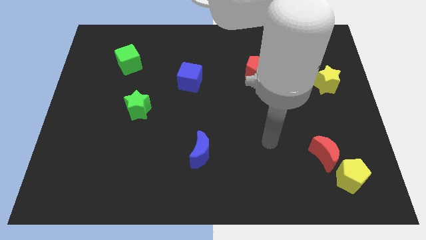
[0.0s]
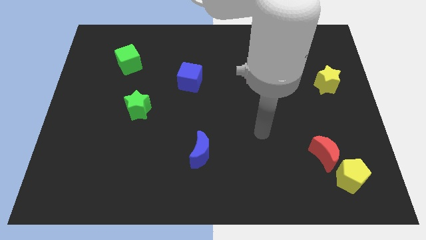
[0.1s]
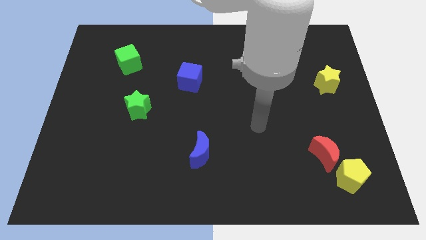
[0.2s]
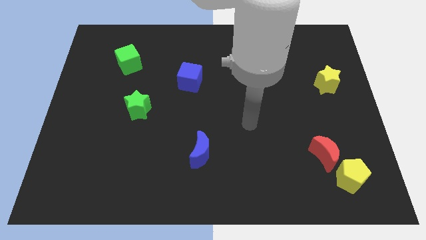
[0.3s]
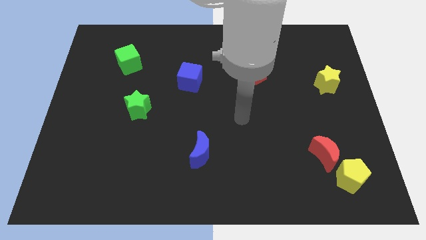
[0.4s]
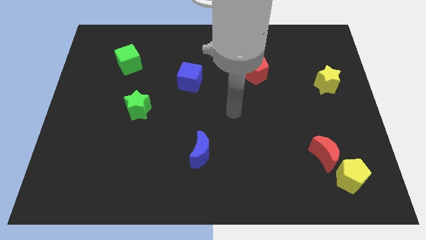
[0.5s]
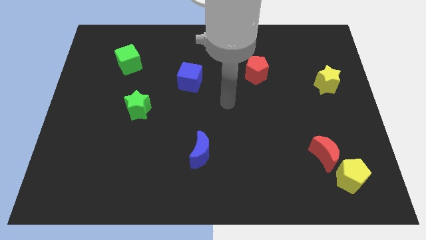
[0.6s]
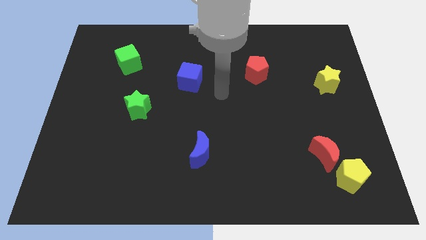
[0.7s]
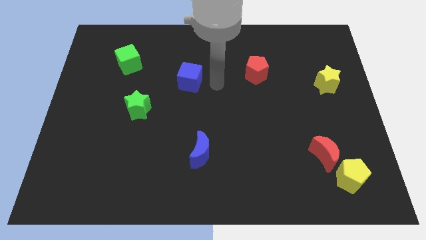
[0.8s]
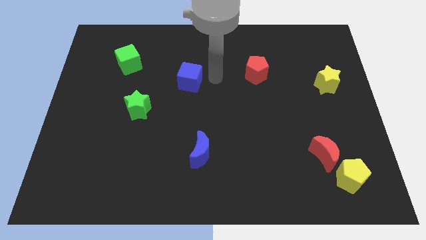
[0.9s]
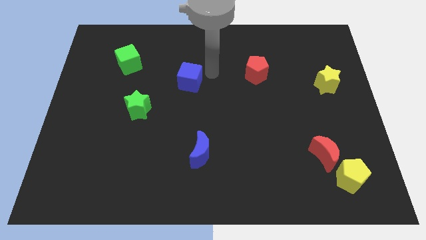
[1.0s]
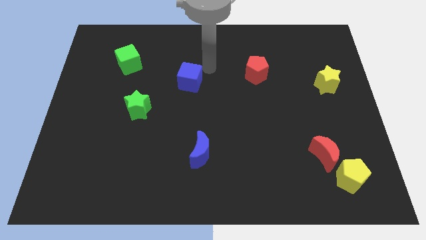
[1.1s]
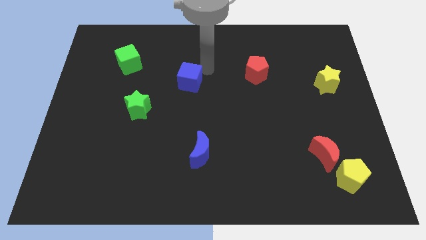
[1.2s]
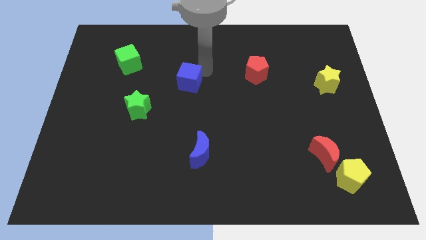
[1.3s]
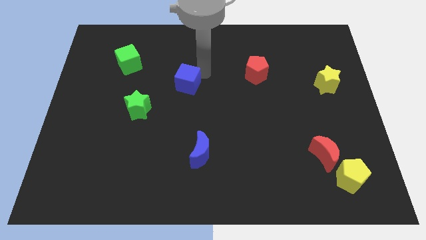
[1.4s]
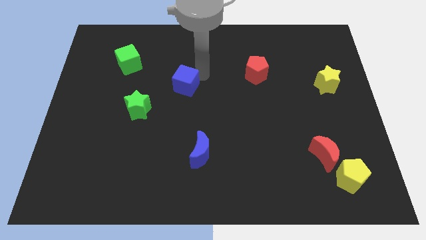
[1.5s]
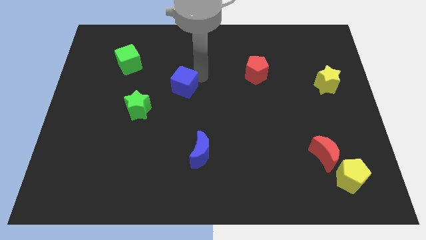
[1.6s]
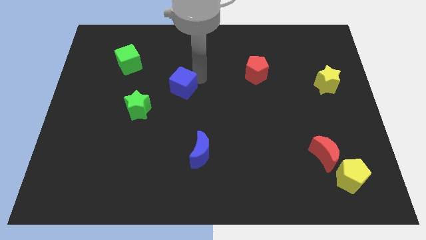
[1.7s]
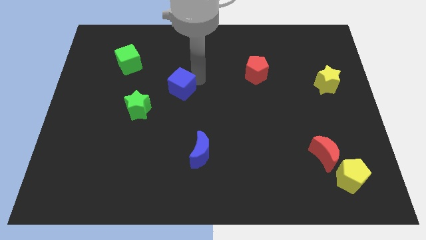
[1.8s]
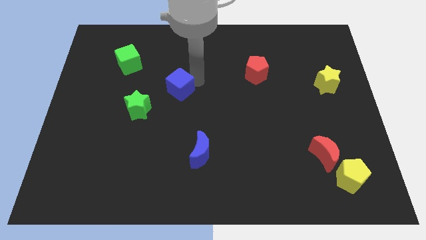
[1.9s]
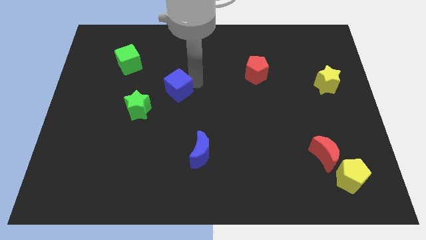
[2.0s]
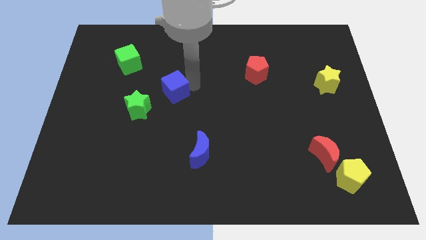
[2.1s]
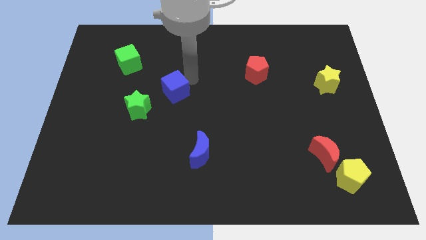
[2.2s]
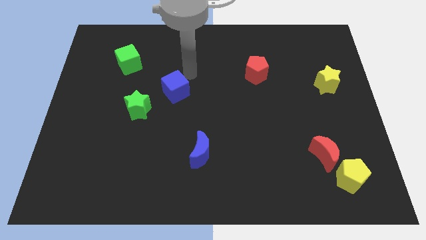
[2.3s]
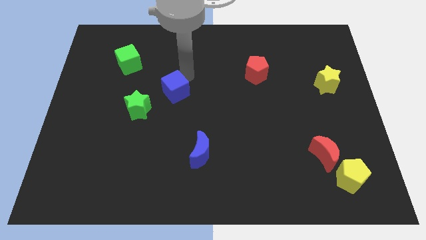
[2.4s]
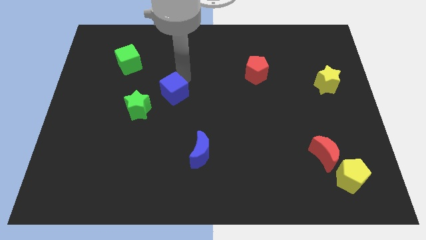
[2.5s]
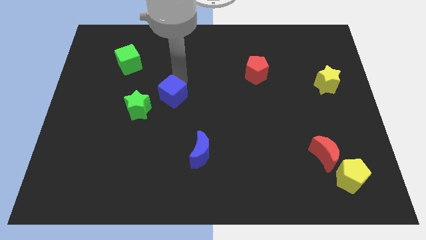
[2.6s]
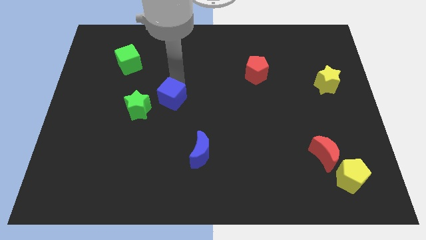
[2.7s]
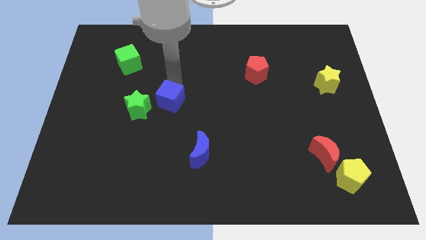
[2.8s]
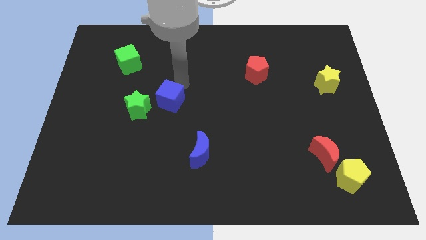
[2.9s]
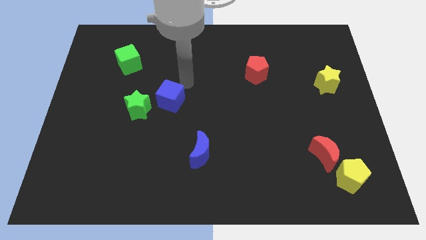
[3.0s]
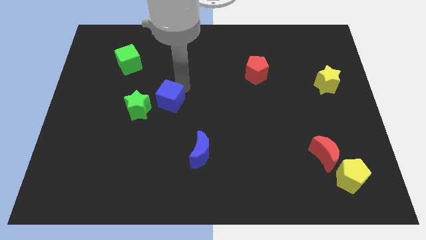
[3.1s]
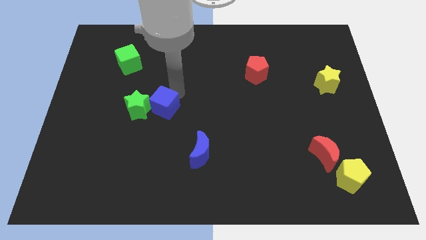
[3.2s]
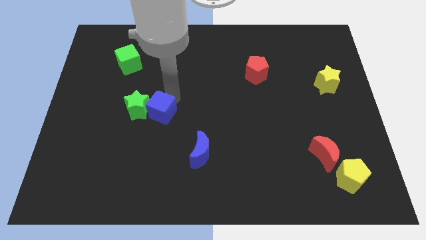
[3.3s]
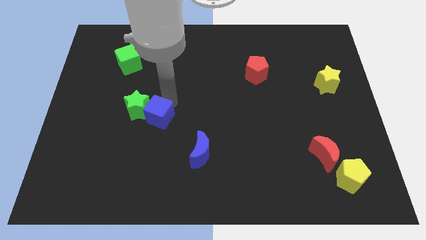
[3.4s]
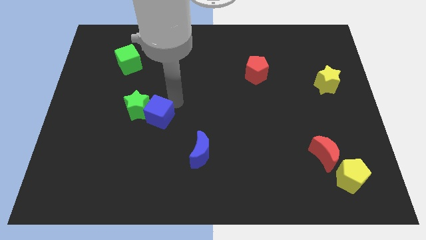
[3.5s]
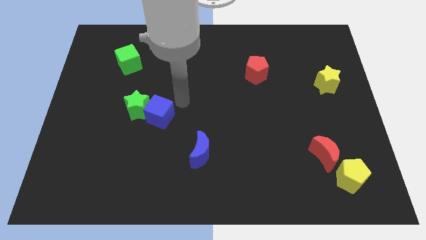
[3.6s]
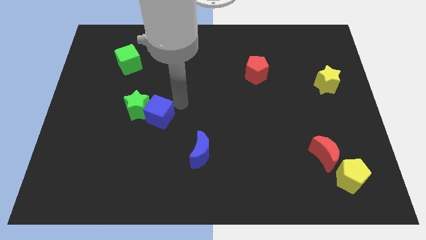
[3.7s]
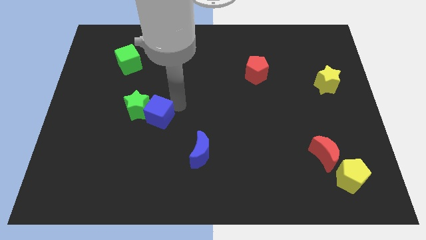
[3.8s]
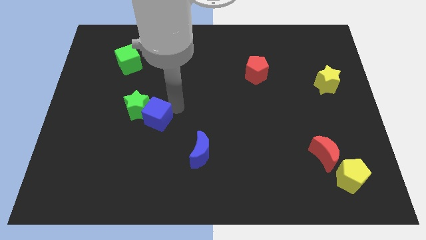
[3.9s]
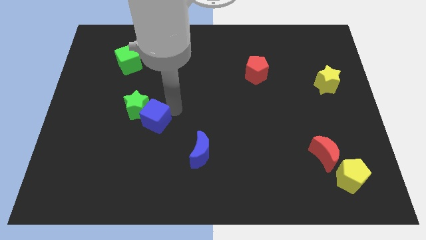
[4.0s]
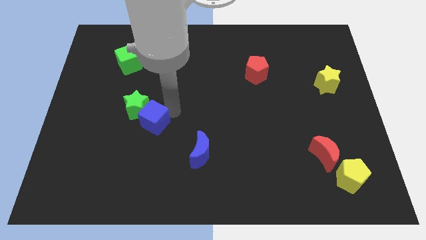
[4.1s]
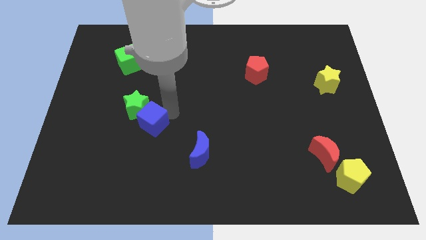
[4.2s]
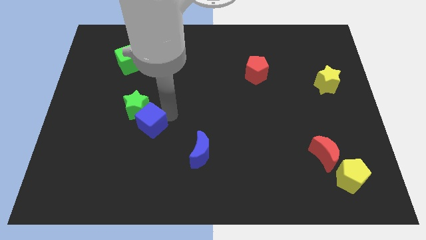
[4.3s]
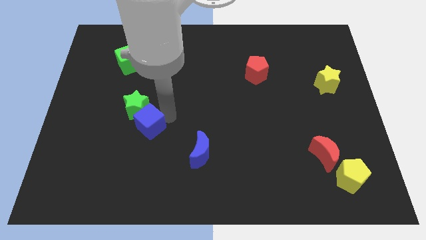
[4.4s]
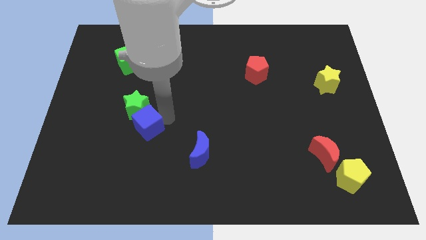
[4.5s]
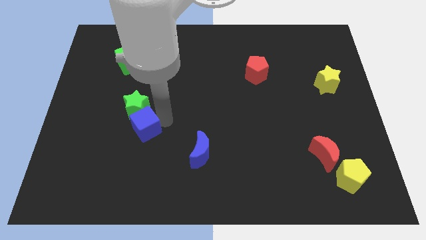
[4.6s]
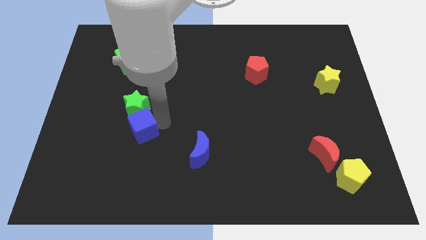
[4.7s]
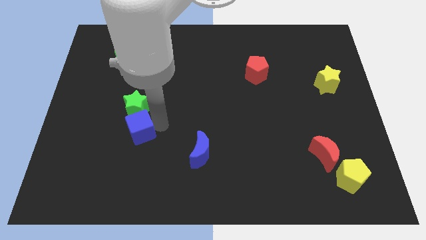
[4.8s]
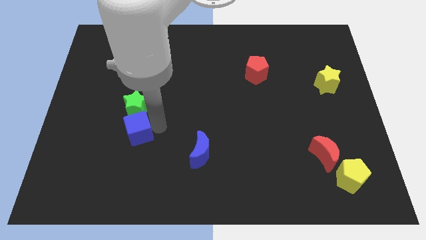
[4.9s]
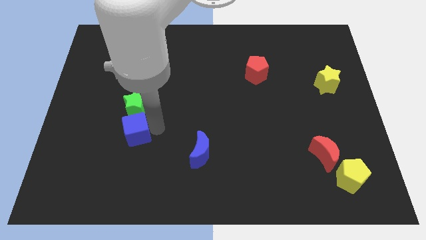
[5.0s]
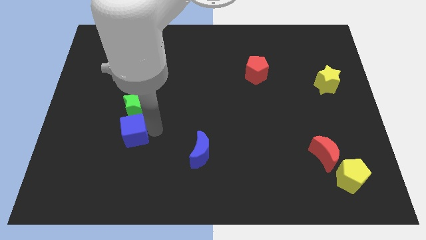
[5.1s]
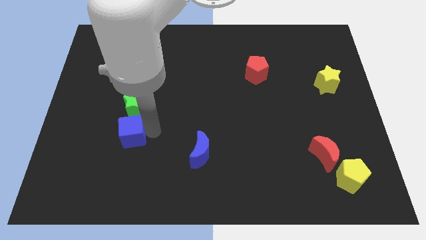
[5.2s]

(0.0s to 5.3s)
push the blue cube diagonally downwards and to the left

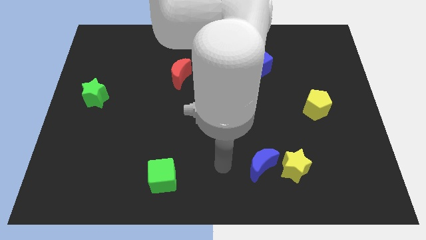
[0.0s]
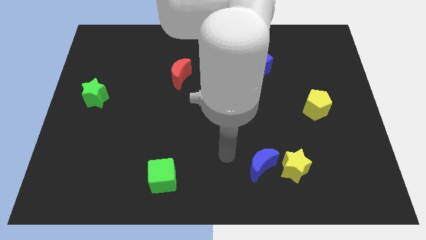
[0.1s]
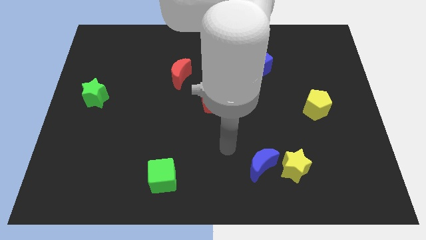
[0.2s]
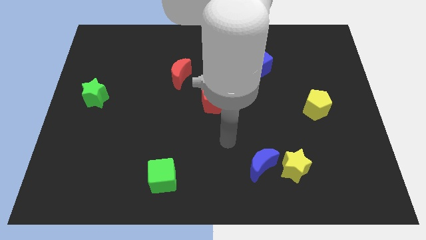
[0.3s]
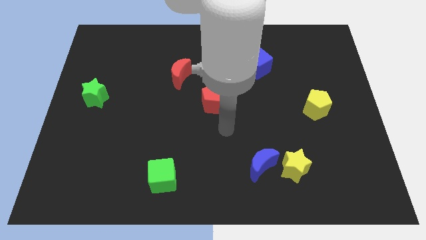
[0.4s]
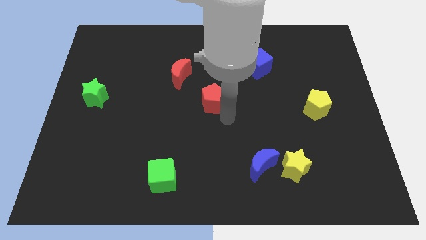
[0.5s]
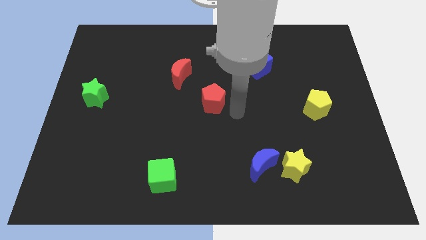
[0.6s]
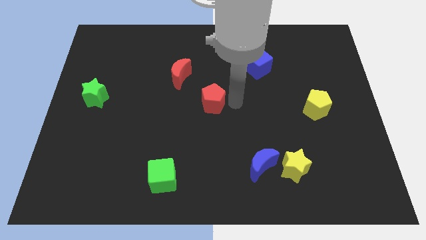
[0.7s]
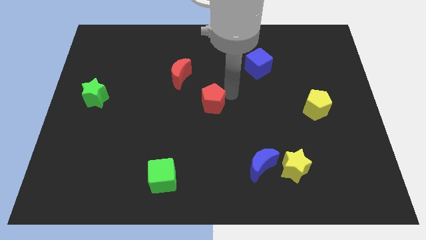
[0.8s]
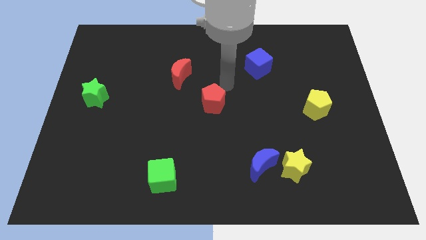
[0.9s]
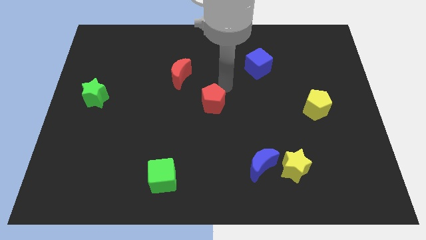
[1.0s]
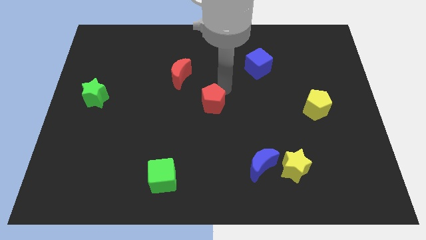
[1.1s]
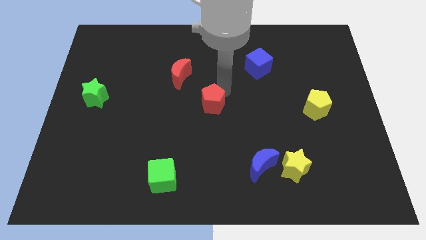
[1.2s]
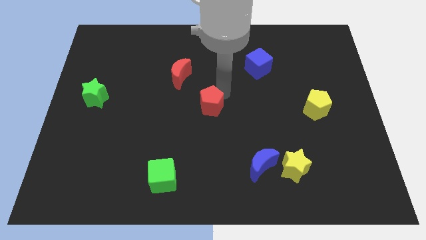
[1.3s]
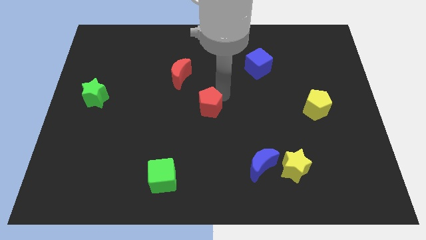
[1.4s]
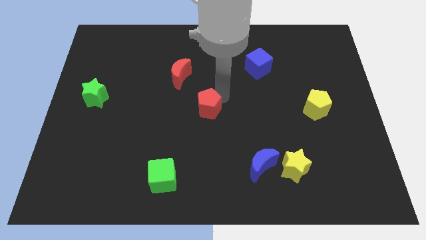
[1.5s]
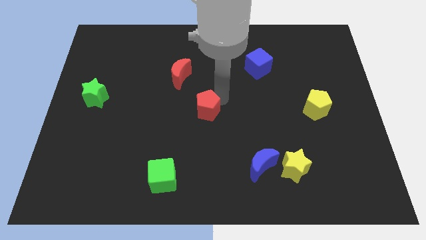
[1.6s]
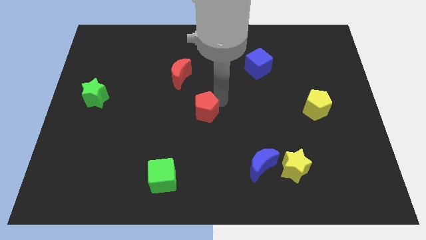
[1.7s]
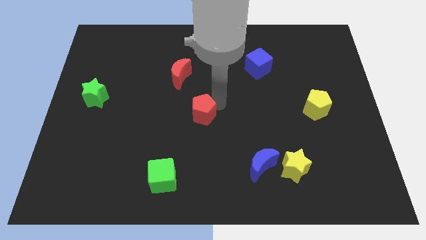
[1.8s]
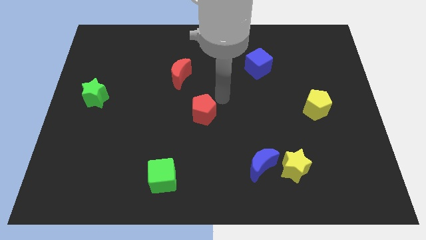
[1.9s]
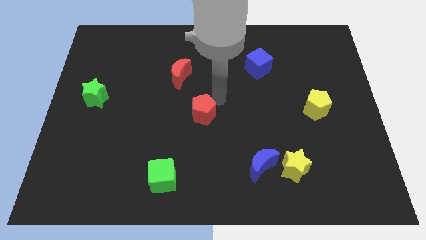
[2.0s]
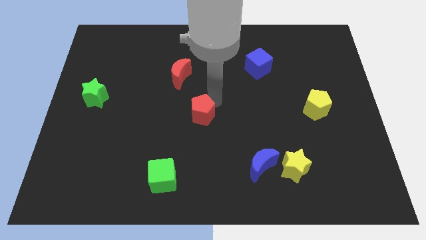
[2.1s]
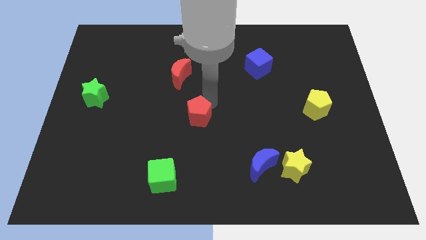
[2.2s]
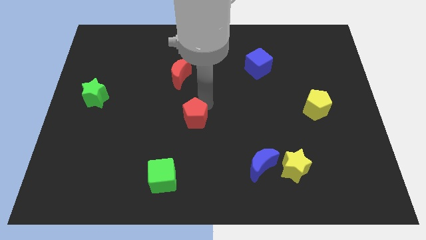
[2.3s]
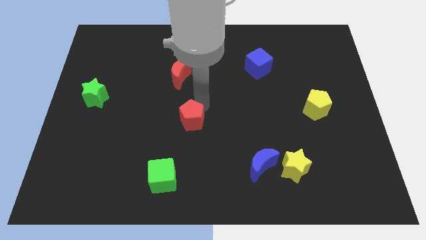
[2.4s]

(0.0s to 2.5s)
push the red pentagon downwards and then to the left a little bit

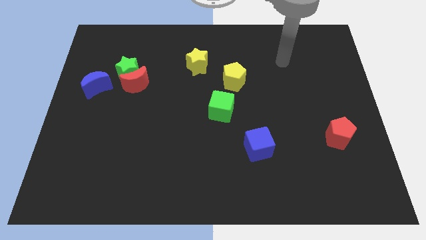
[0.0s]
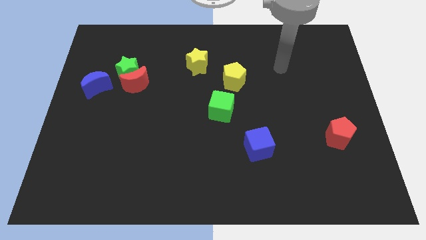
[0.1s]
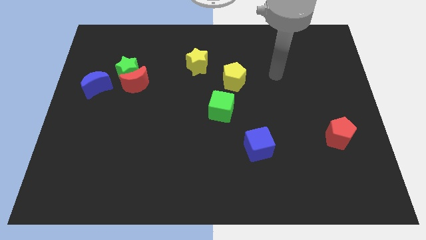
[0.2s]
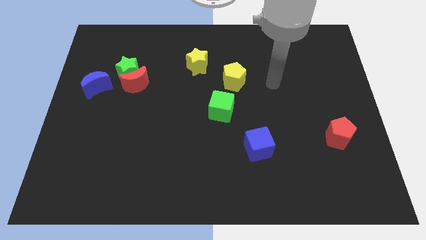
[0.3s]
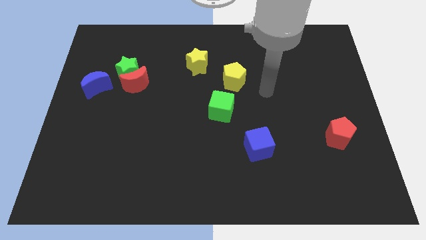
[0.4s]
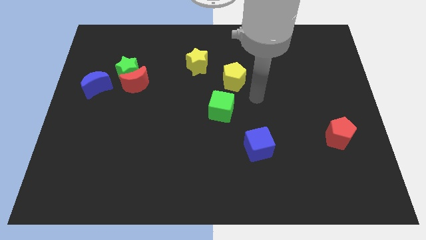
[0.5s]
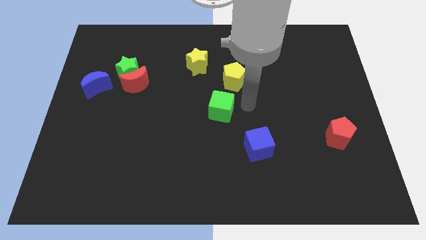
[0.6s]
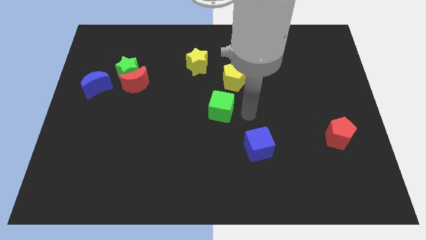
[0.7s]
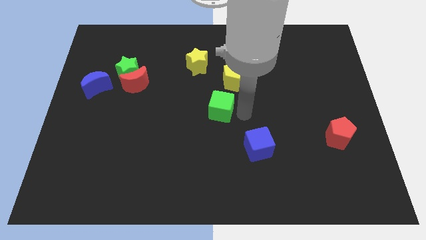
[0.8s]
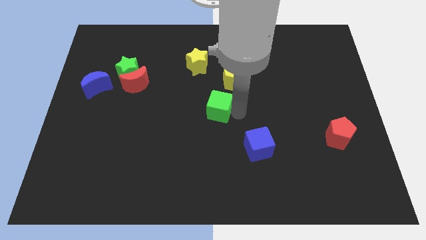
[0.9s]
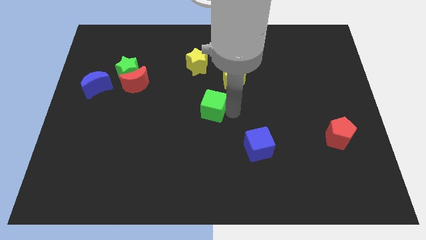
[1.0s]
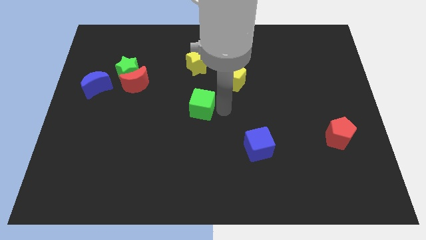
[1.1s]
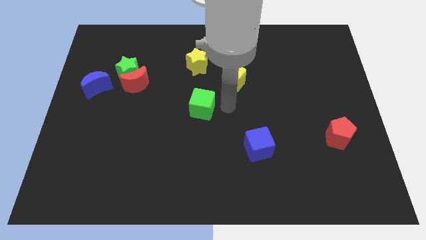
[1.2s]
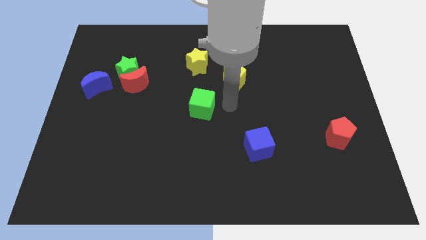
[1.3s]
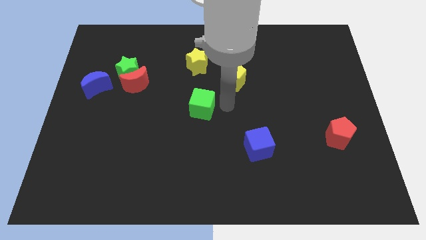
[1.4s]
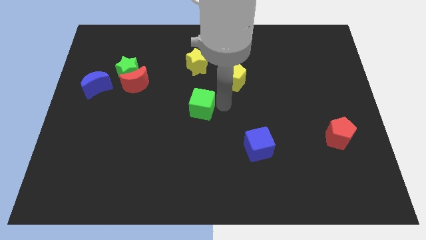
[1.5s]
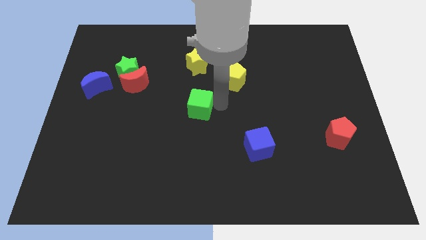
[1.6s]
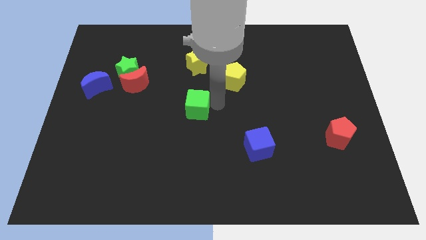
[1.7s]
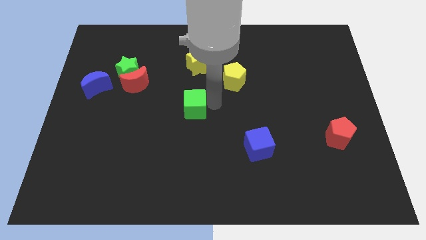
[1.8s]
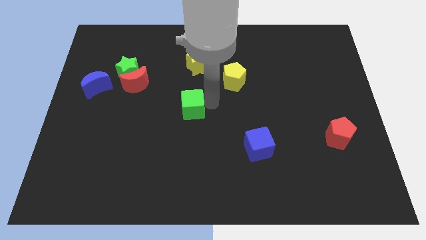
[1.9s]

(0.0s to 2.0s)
slightly slide the green cube left
